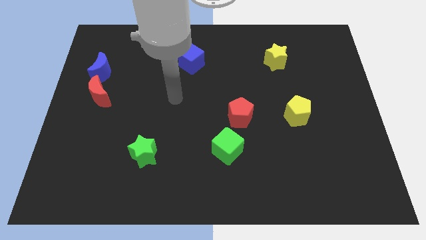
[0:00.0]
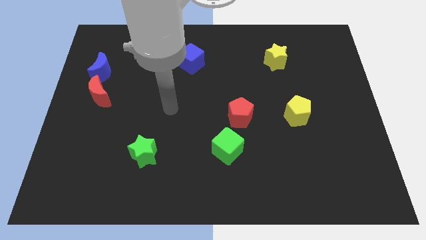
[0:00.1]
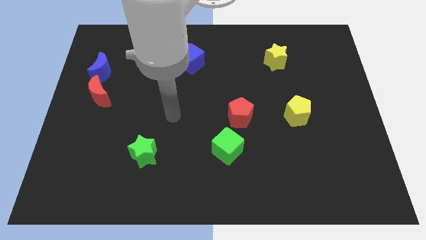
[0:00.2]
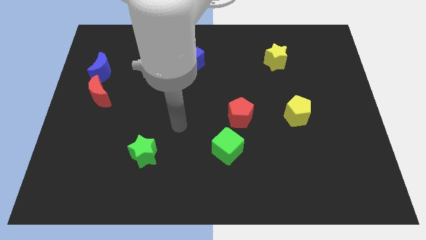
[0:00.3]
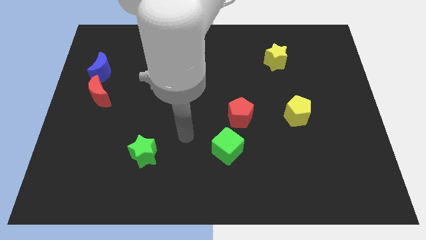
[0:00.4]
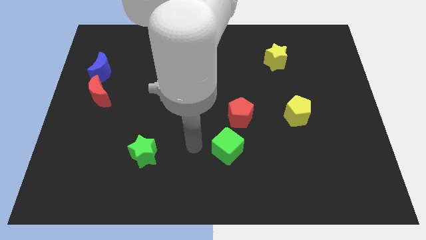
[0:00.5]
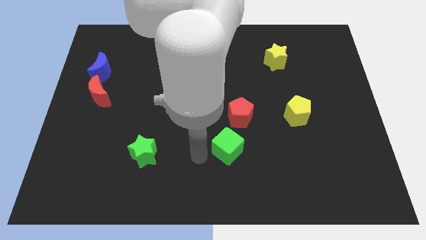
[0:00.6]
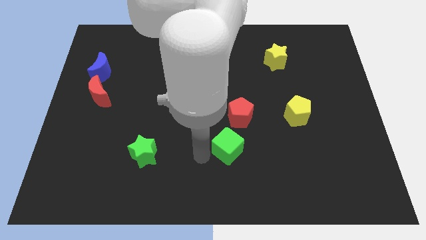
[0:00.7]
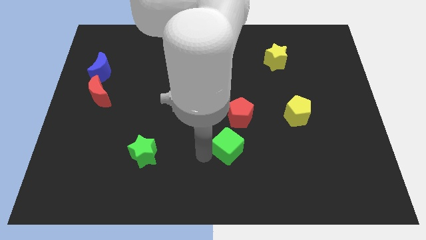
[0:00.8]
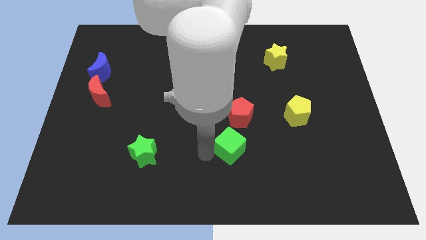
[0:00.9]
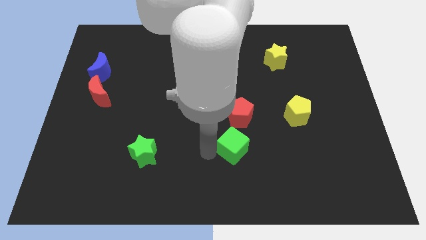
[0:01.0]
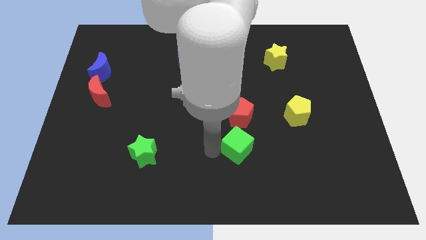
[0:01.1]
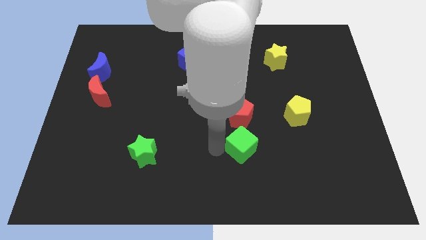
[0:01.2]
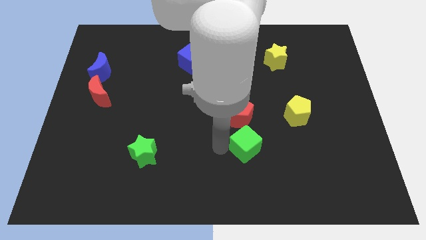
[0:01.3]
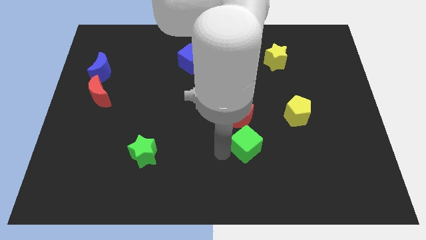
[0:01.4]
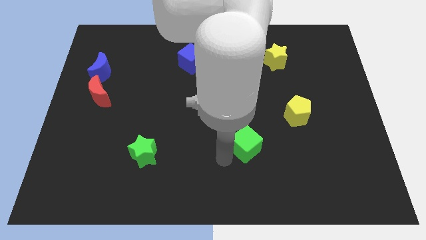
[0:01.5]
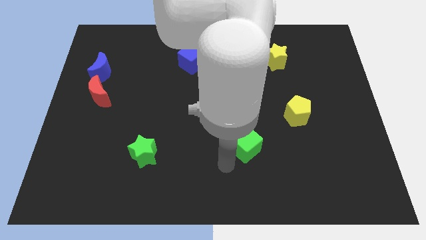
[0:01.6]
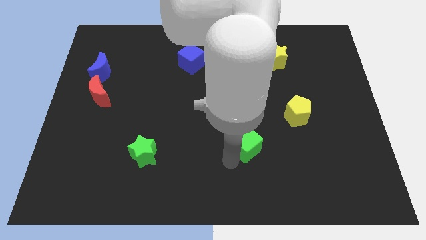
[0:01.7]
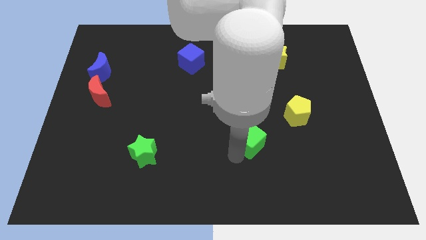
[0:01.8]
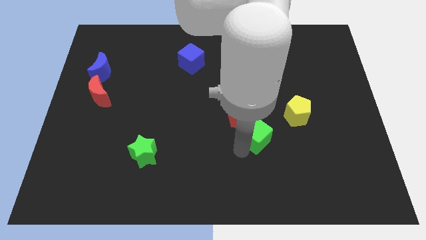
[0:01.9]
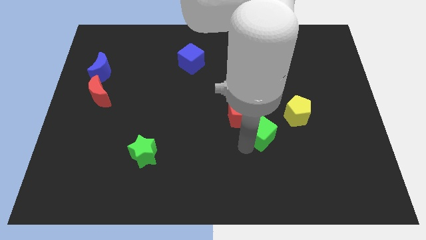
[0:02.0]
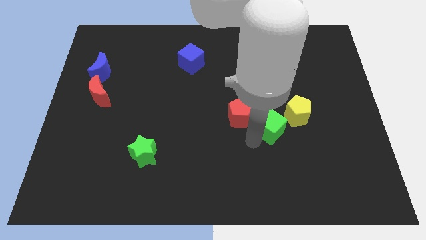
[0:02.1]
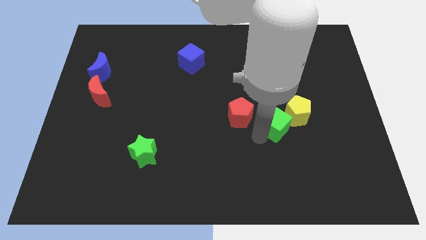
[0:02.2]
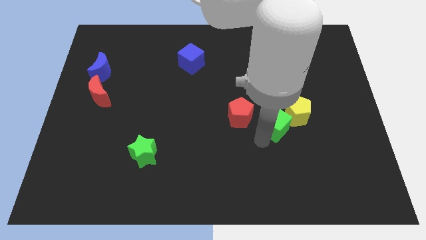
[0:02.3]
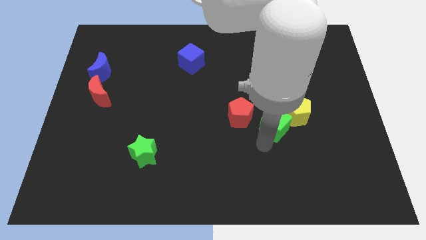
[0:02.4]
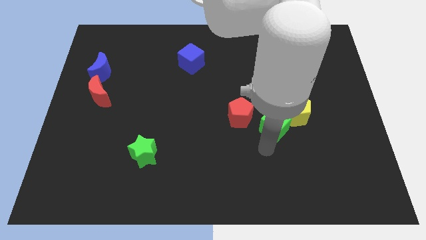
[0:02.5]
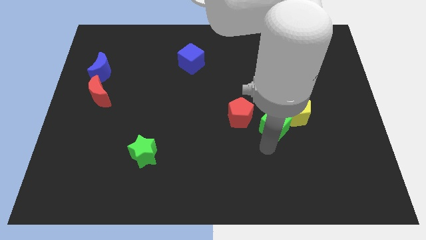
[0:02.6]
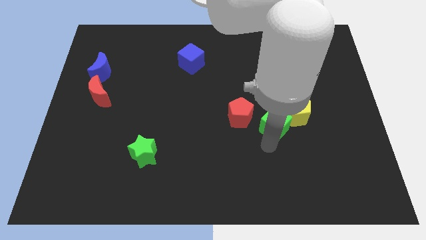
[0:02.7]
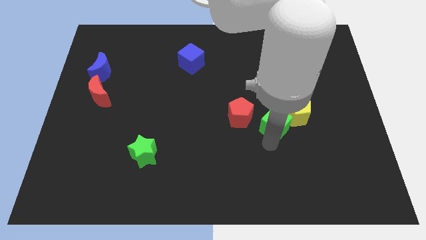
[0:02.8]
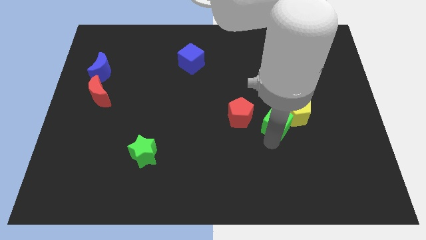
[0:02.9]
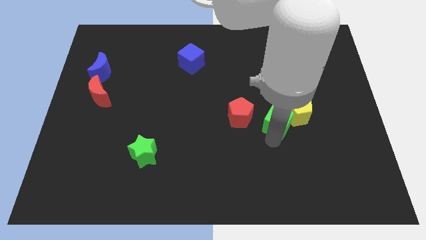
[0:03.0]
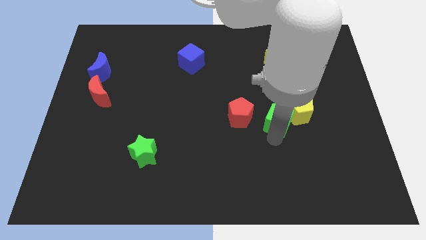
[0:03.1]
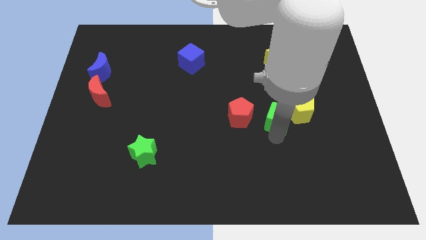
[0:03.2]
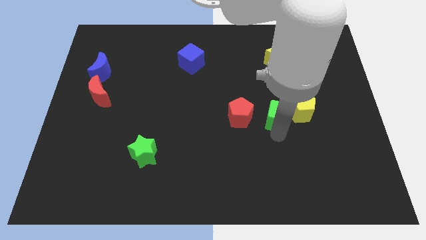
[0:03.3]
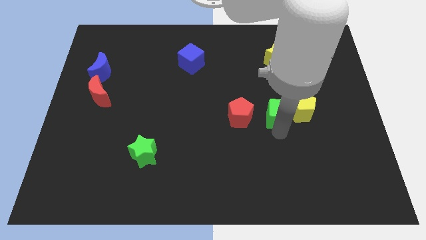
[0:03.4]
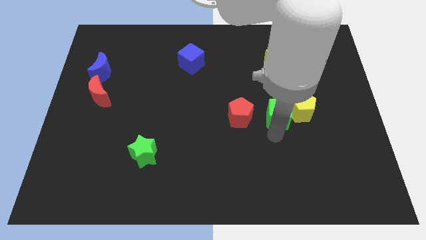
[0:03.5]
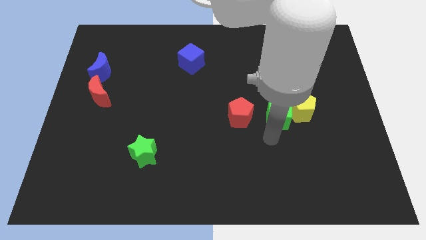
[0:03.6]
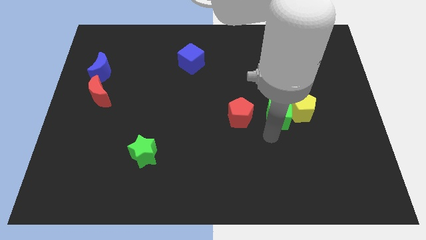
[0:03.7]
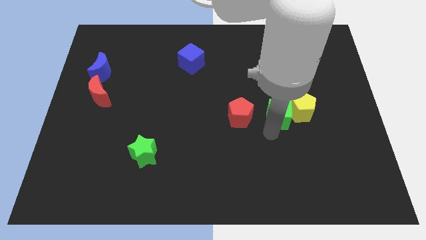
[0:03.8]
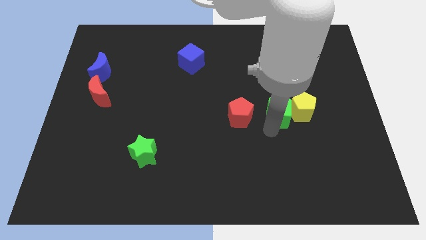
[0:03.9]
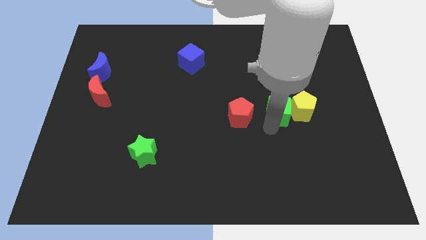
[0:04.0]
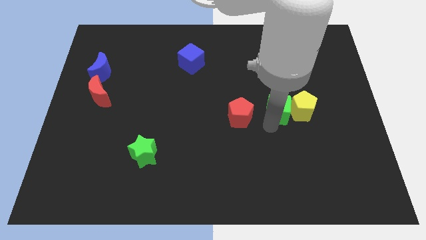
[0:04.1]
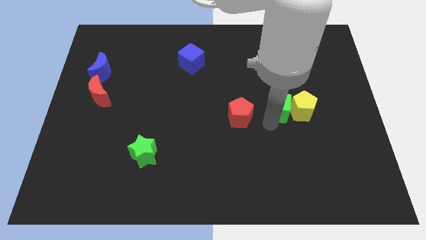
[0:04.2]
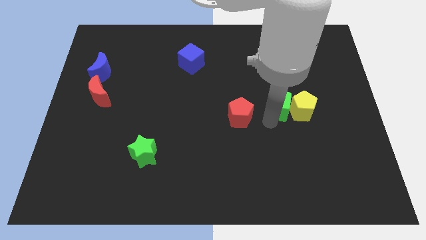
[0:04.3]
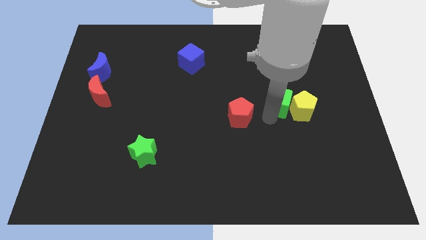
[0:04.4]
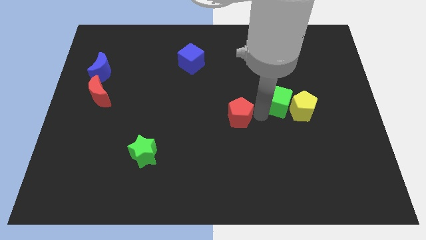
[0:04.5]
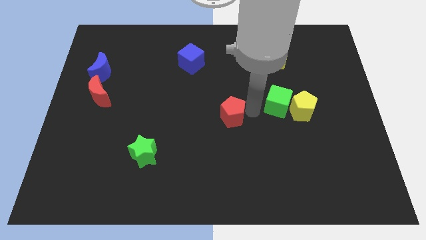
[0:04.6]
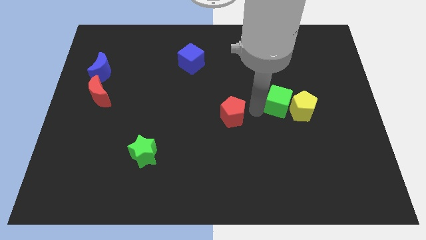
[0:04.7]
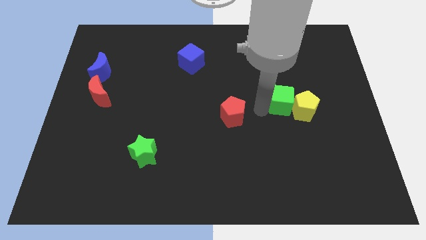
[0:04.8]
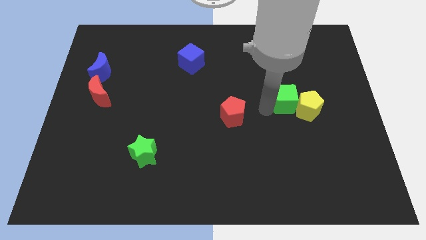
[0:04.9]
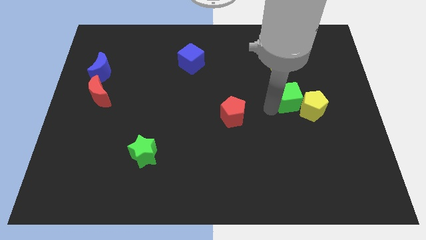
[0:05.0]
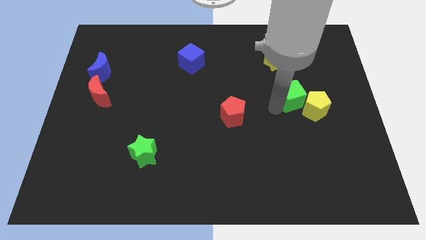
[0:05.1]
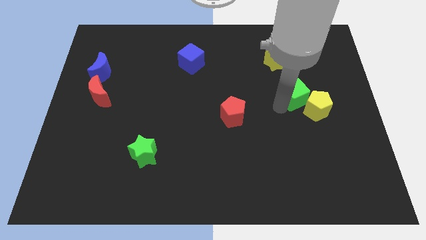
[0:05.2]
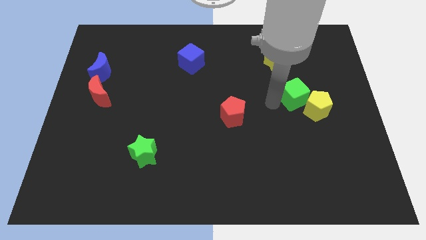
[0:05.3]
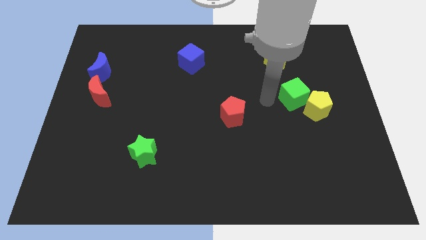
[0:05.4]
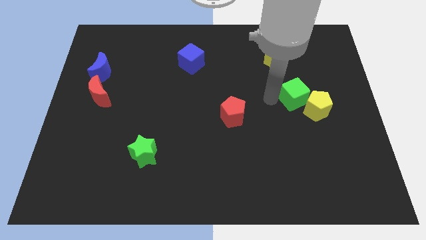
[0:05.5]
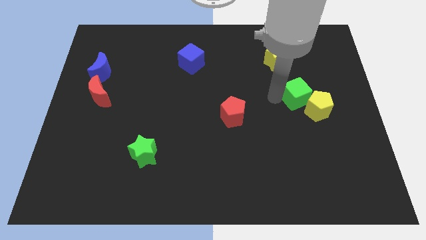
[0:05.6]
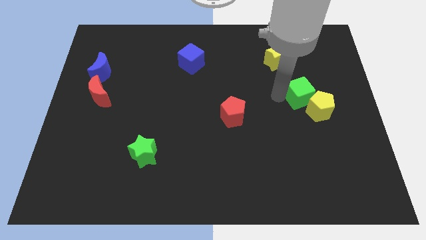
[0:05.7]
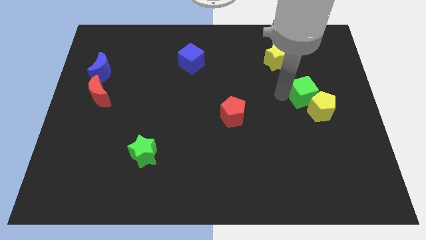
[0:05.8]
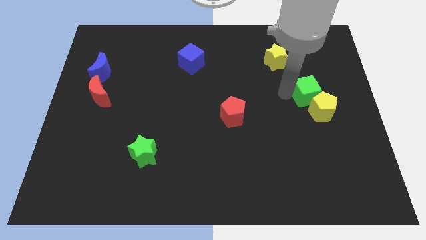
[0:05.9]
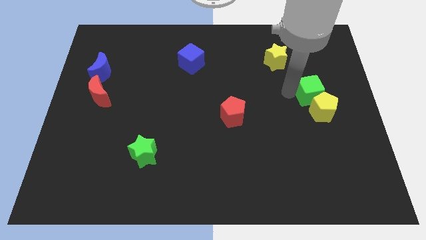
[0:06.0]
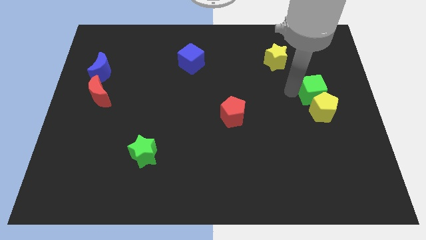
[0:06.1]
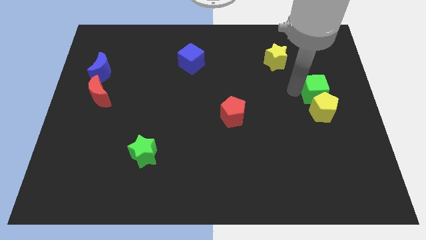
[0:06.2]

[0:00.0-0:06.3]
slide the green cube to the top right side of the yellow pentagon
